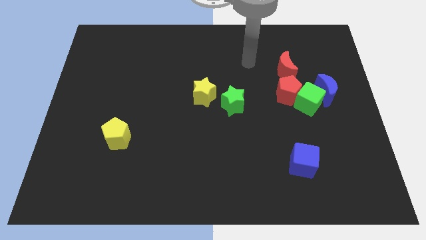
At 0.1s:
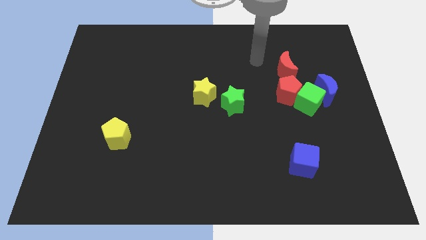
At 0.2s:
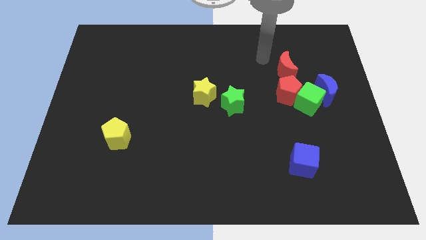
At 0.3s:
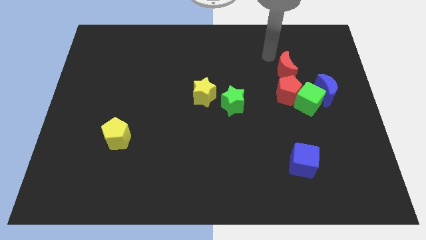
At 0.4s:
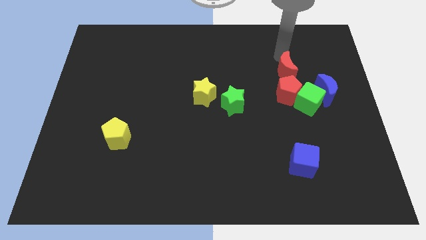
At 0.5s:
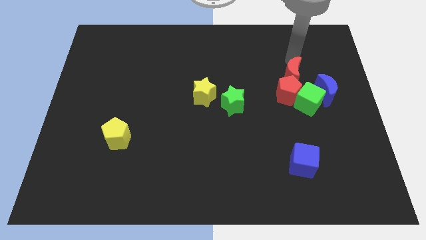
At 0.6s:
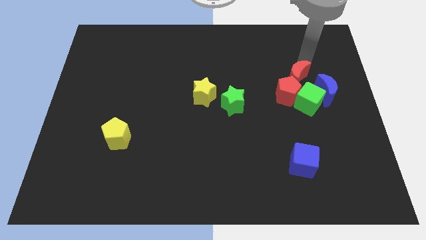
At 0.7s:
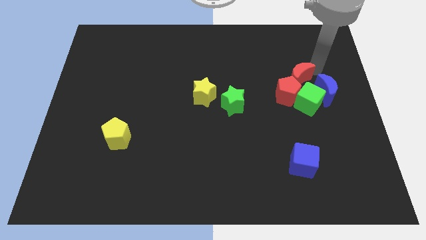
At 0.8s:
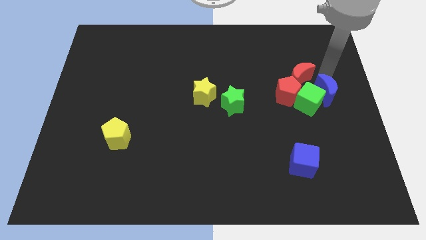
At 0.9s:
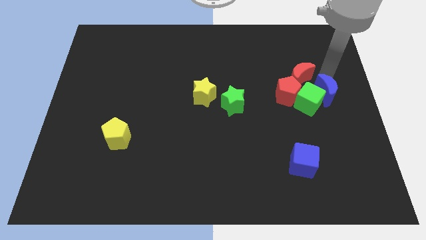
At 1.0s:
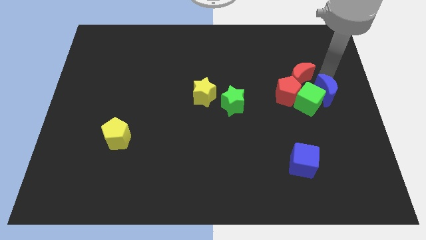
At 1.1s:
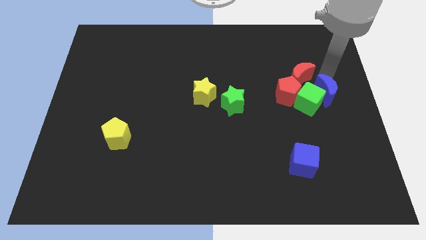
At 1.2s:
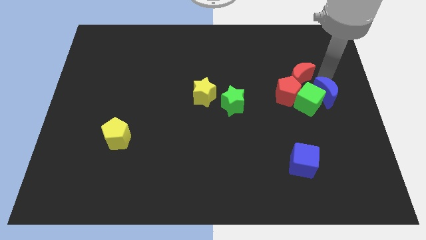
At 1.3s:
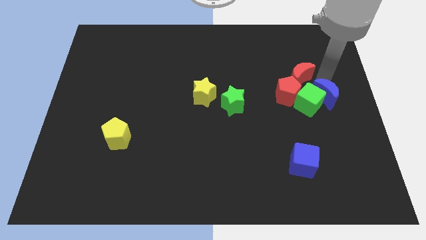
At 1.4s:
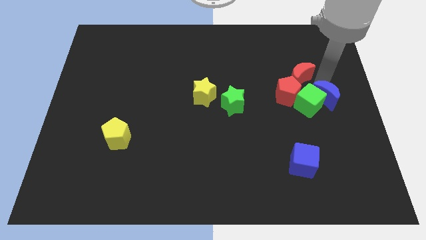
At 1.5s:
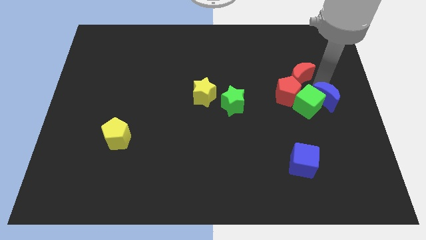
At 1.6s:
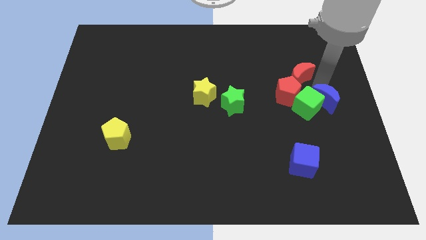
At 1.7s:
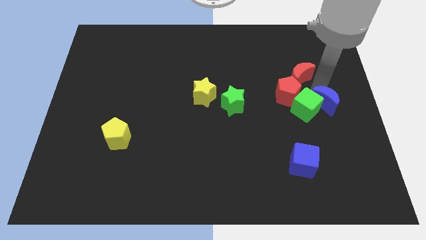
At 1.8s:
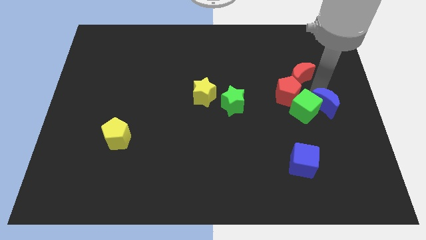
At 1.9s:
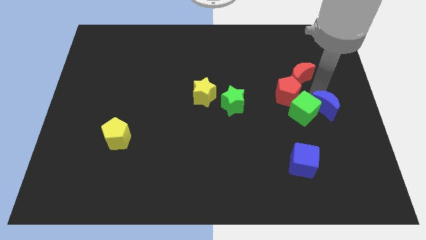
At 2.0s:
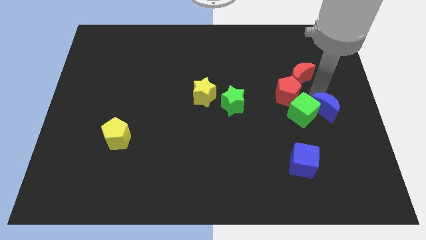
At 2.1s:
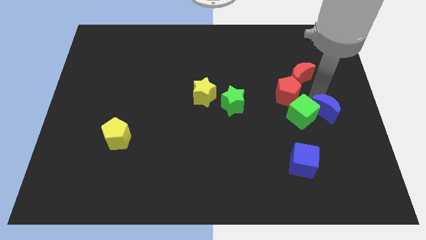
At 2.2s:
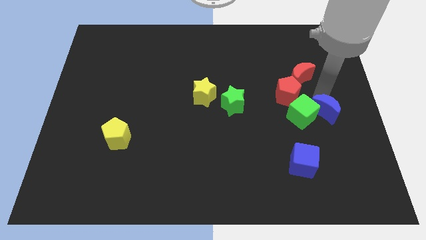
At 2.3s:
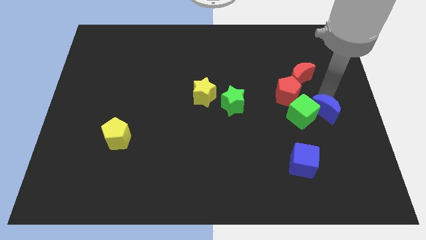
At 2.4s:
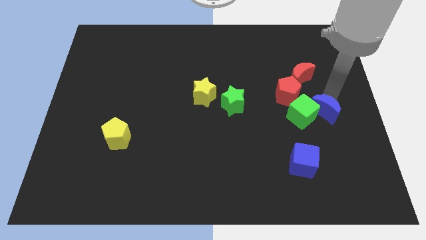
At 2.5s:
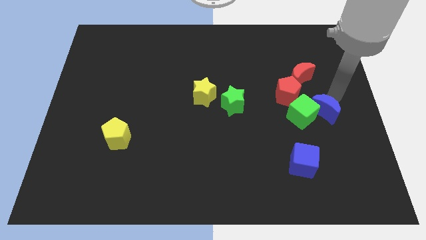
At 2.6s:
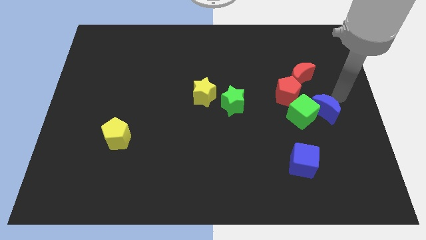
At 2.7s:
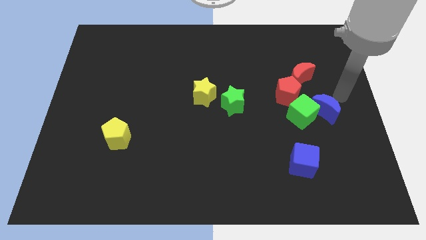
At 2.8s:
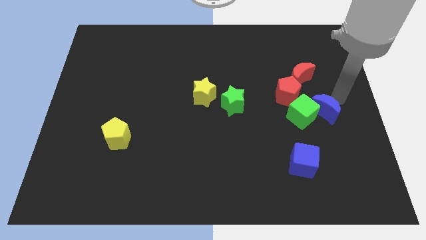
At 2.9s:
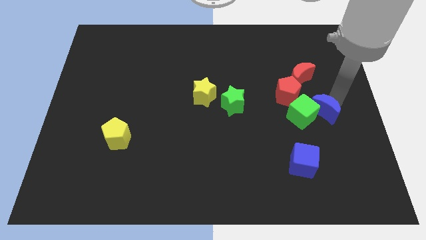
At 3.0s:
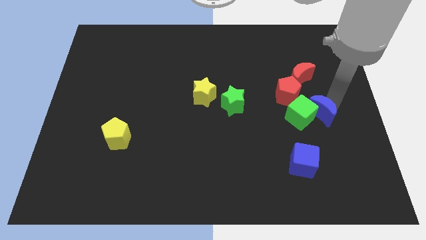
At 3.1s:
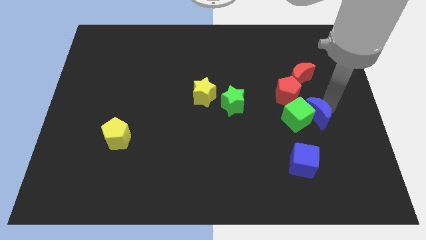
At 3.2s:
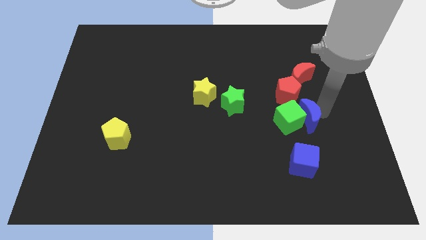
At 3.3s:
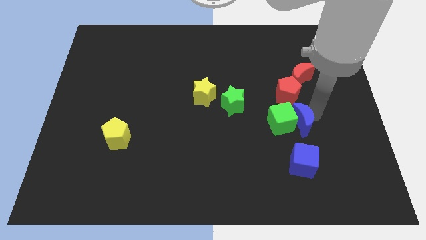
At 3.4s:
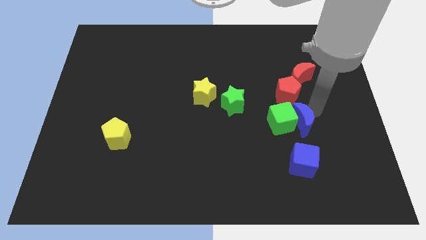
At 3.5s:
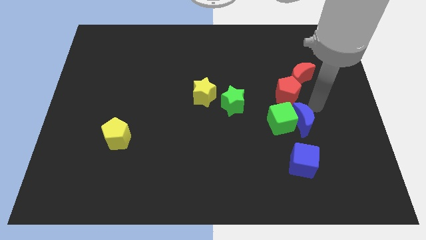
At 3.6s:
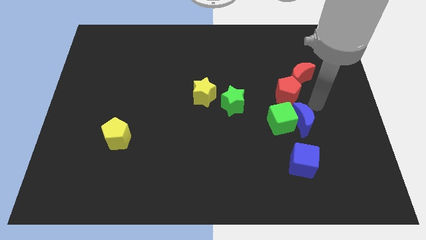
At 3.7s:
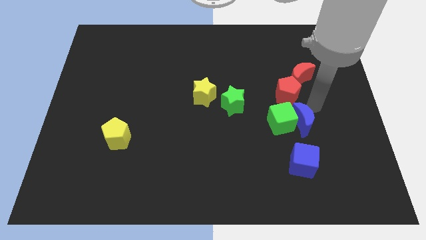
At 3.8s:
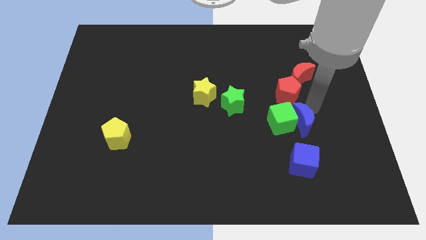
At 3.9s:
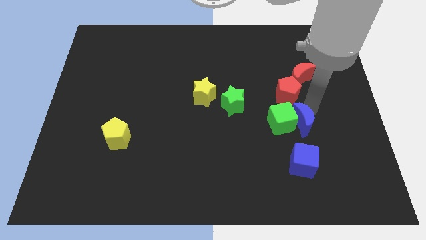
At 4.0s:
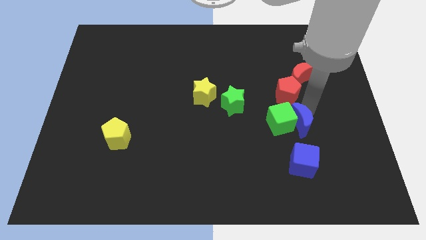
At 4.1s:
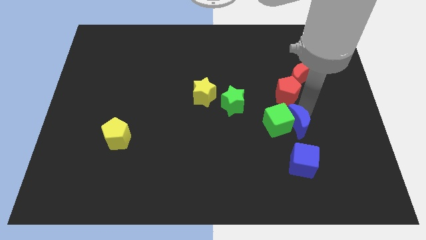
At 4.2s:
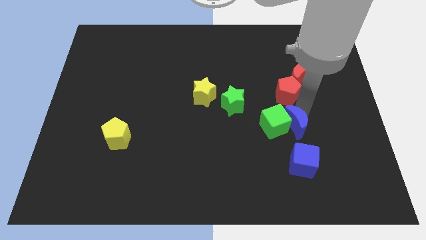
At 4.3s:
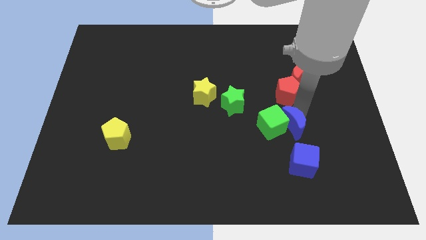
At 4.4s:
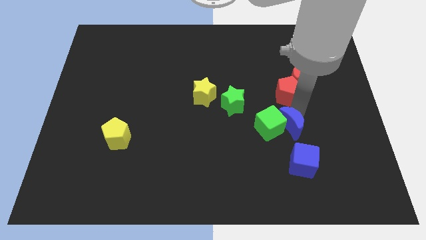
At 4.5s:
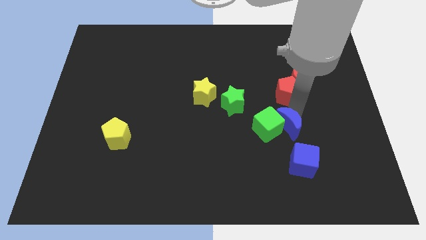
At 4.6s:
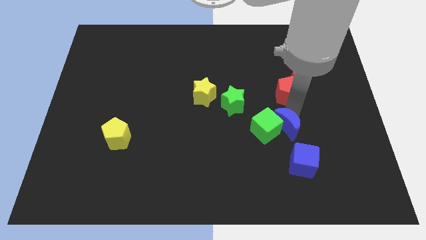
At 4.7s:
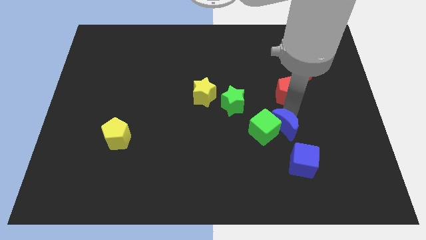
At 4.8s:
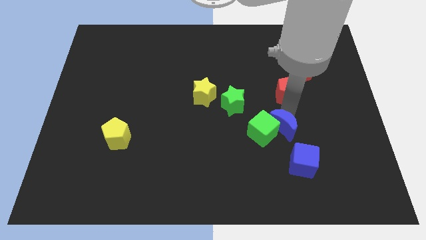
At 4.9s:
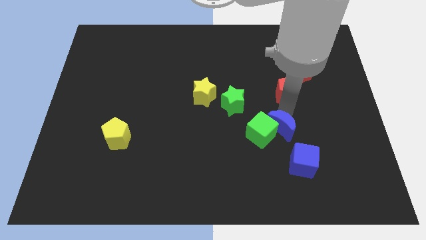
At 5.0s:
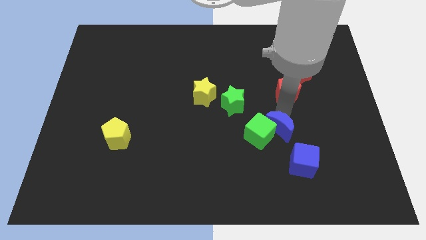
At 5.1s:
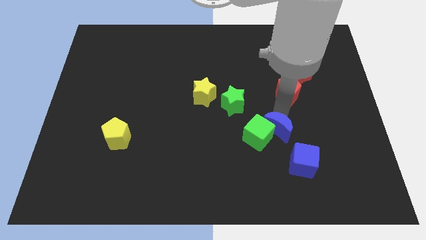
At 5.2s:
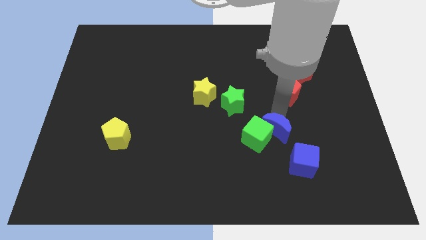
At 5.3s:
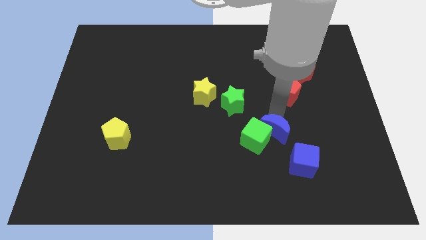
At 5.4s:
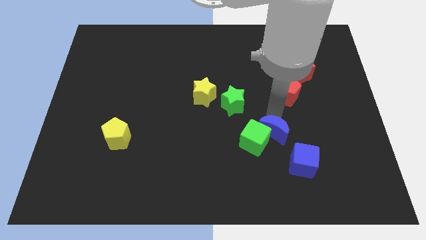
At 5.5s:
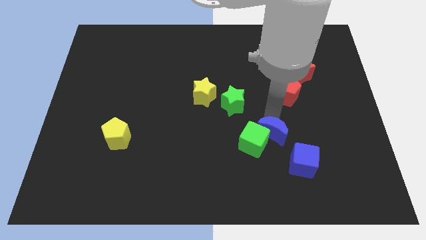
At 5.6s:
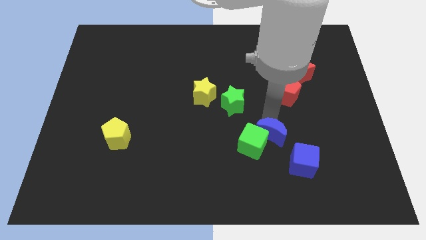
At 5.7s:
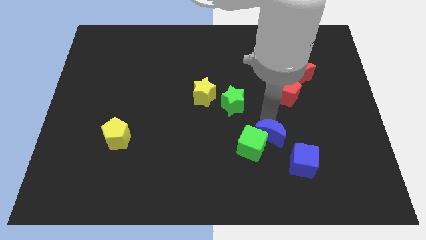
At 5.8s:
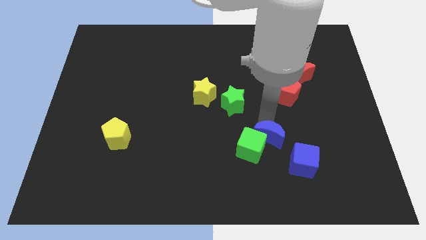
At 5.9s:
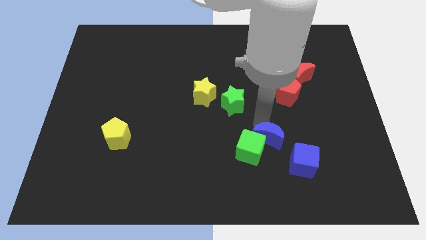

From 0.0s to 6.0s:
move the blue moon diagonally downwards and left

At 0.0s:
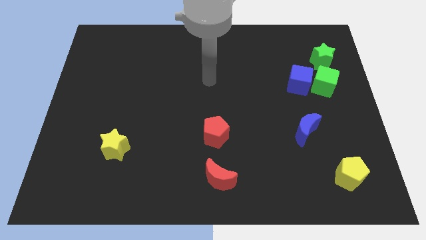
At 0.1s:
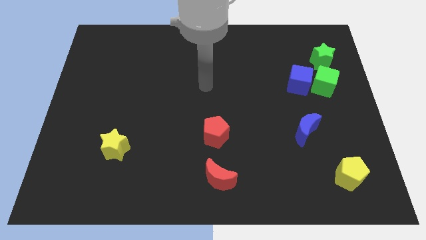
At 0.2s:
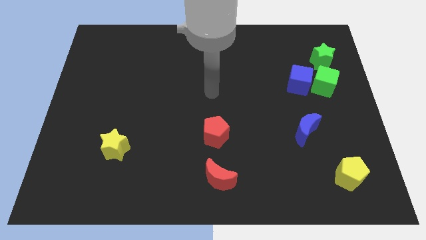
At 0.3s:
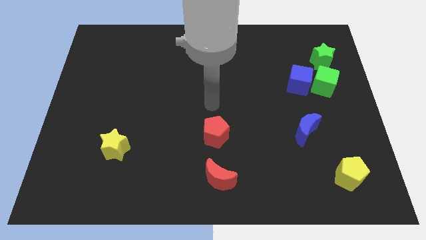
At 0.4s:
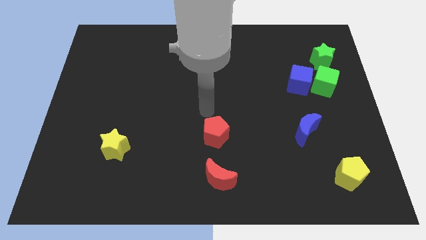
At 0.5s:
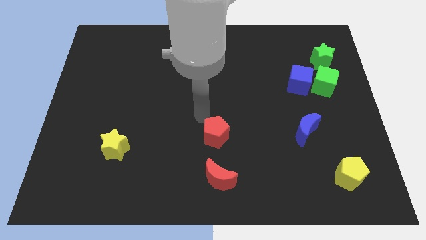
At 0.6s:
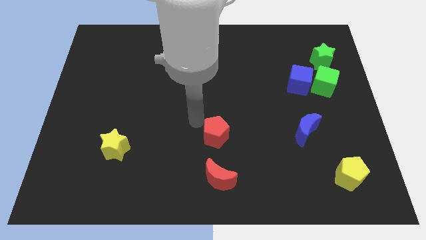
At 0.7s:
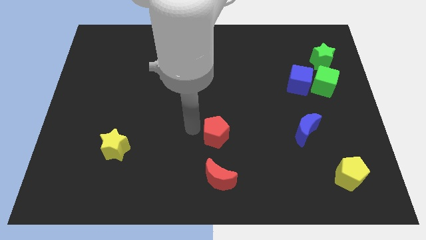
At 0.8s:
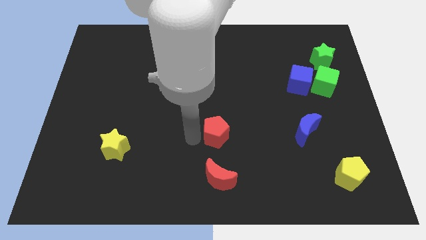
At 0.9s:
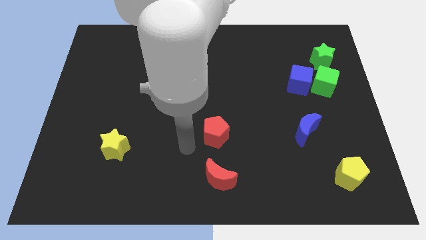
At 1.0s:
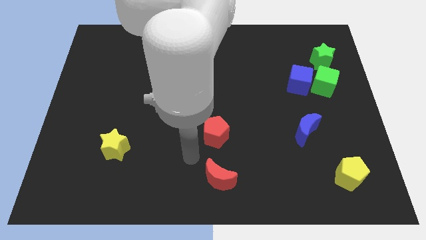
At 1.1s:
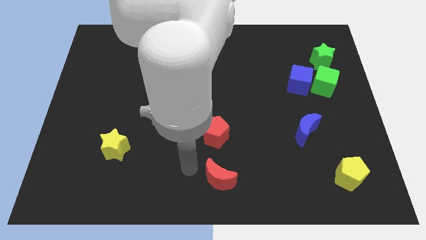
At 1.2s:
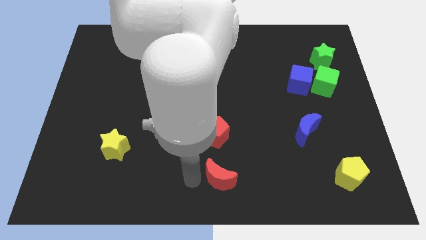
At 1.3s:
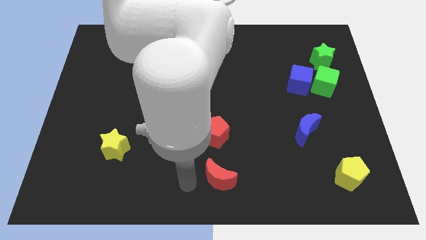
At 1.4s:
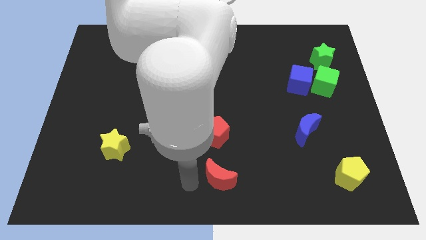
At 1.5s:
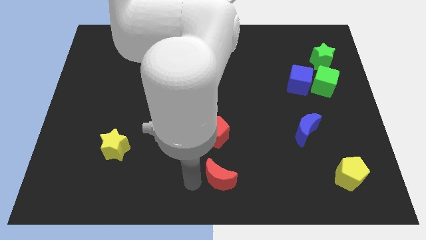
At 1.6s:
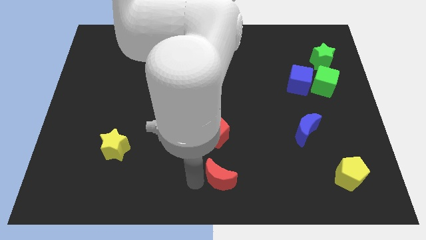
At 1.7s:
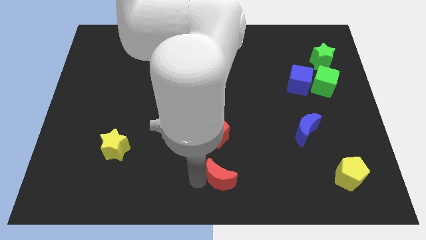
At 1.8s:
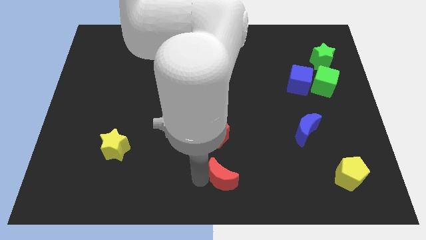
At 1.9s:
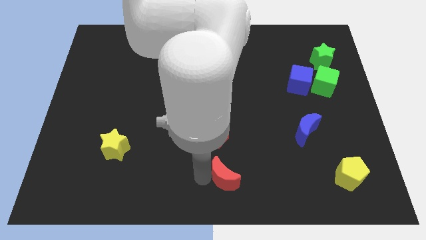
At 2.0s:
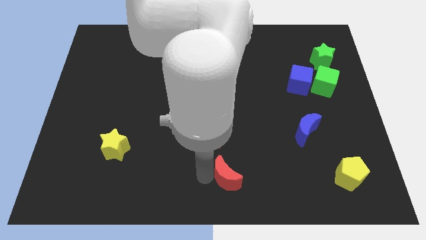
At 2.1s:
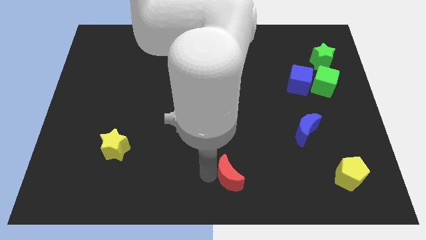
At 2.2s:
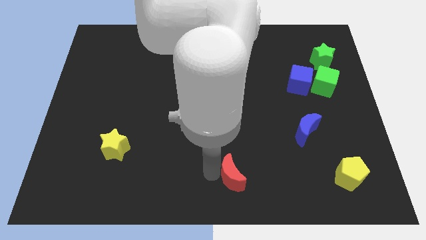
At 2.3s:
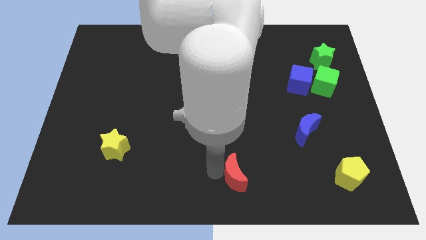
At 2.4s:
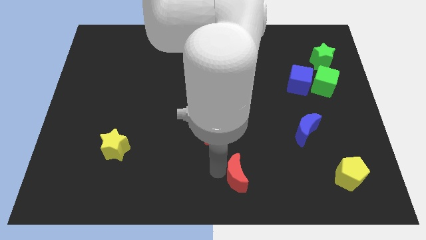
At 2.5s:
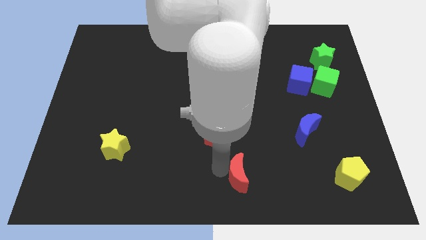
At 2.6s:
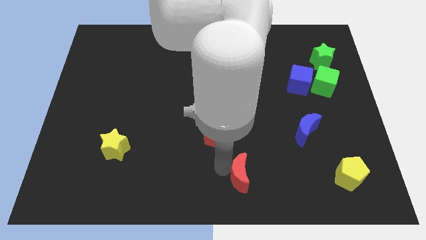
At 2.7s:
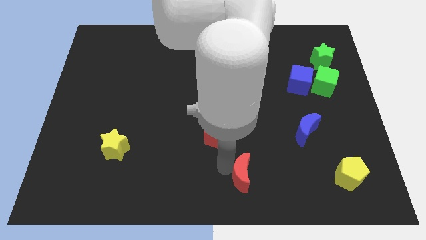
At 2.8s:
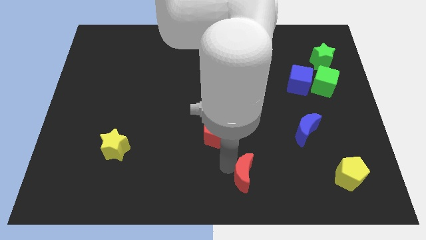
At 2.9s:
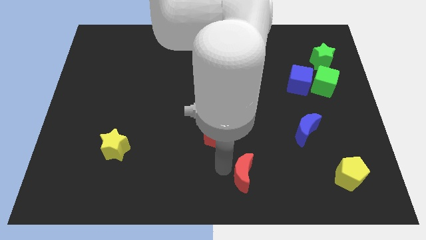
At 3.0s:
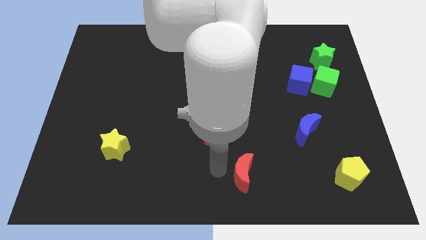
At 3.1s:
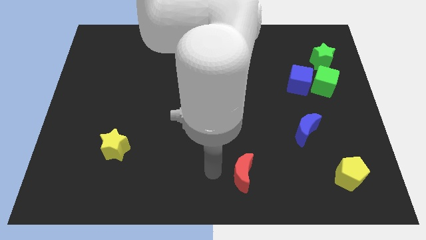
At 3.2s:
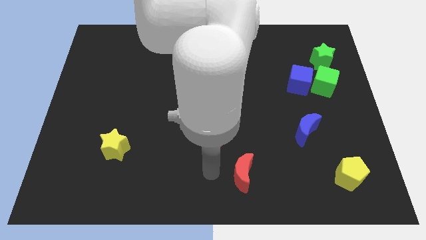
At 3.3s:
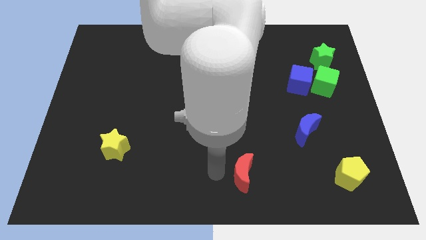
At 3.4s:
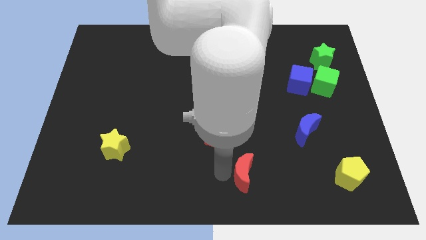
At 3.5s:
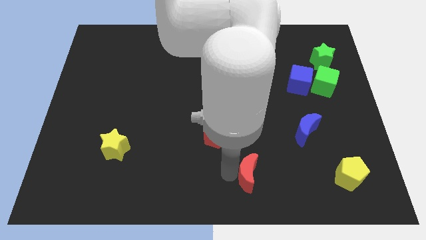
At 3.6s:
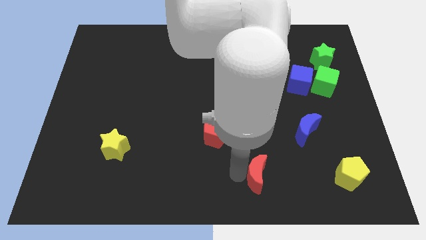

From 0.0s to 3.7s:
push the red moon to the right slightly
